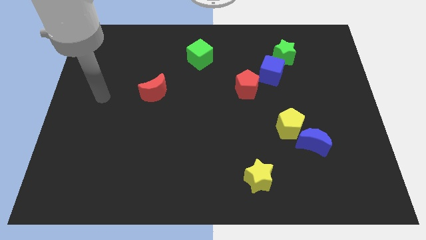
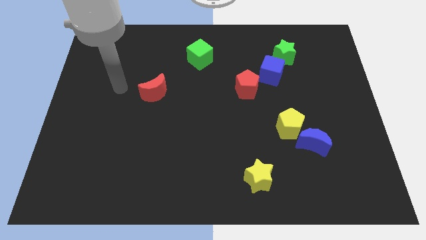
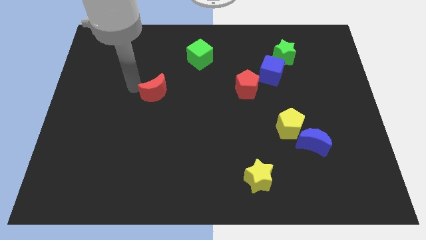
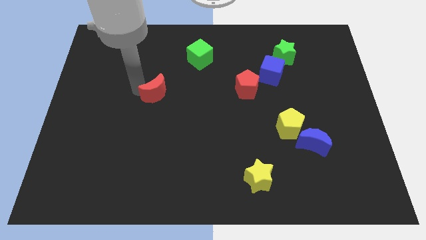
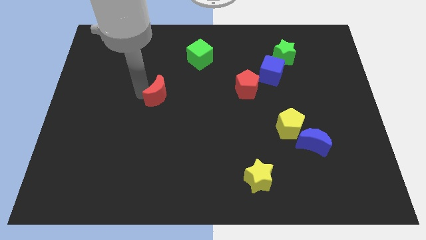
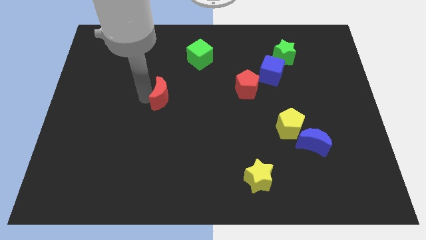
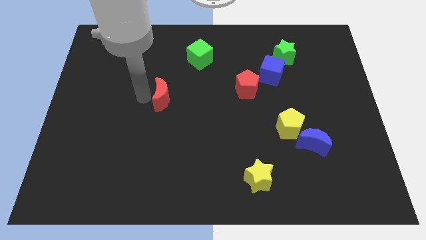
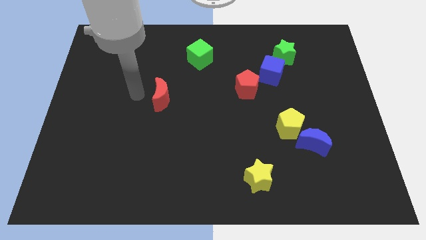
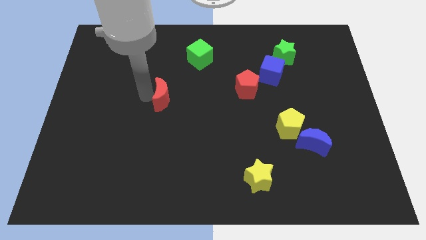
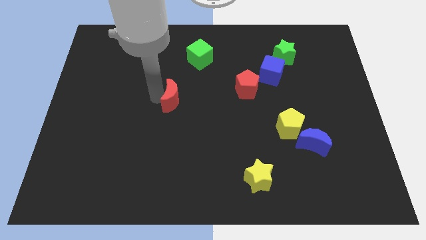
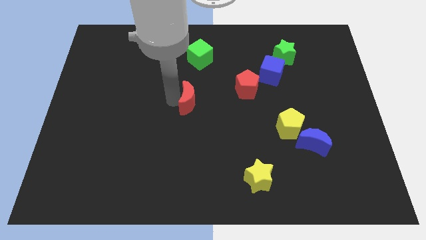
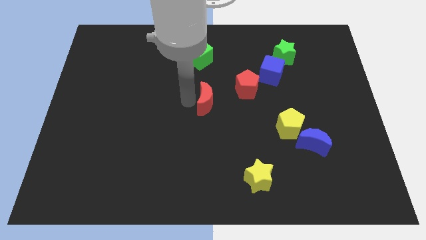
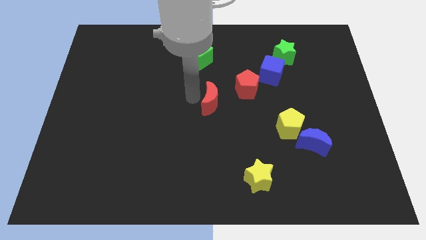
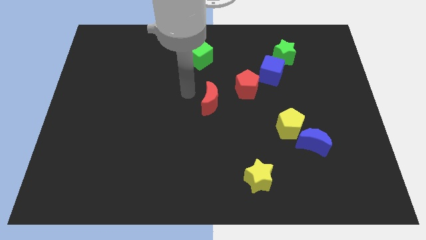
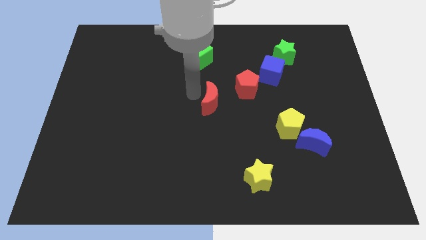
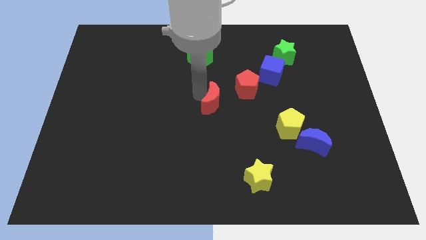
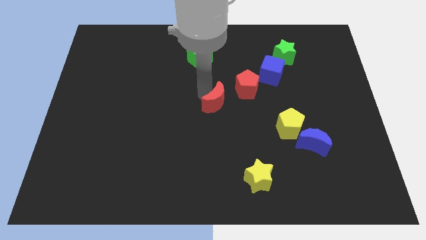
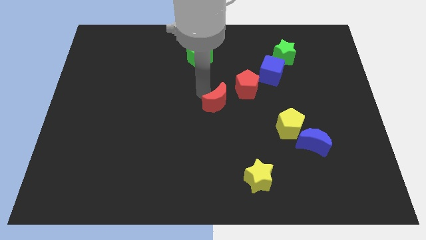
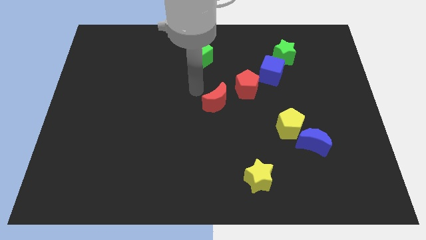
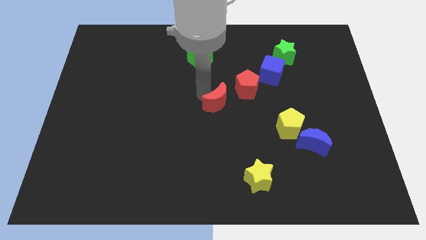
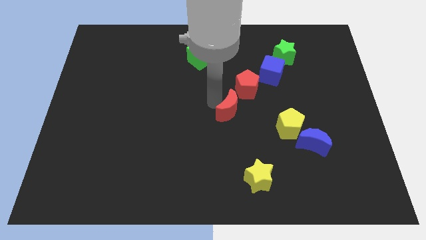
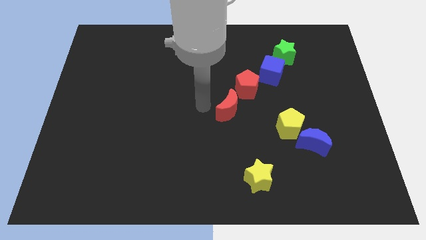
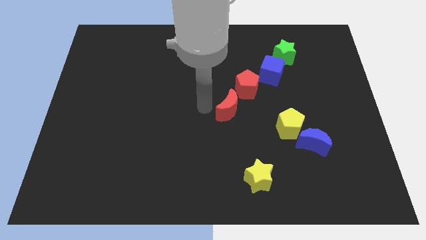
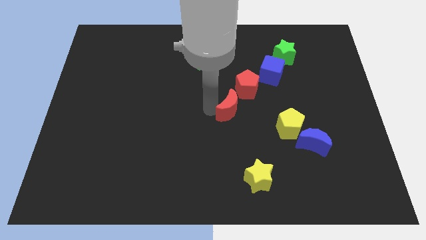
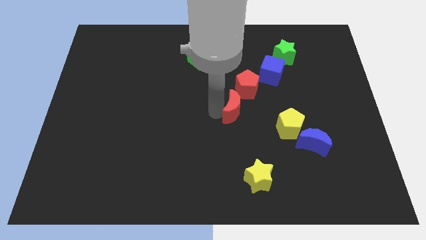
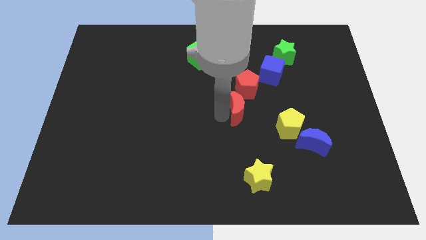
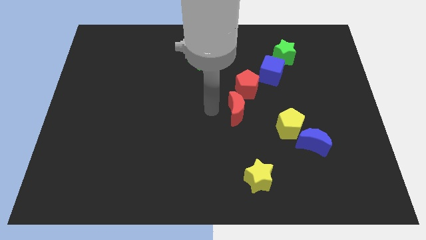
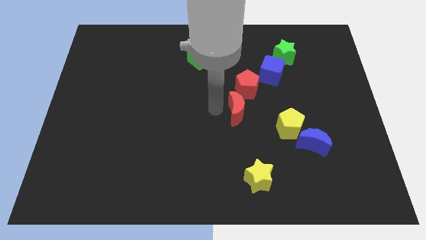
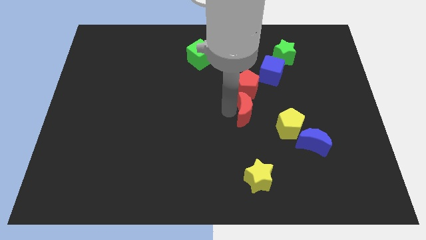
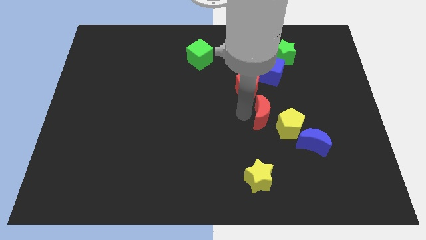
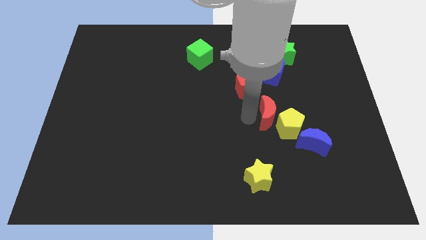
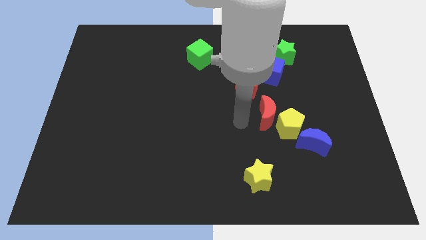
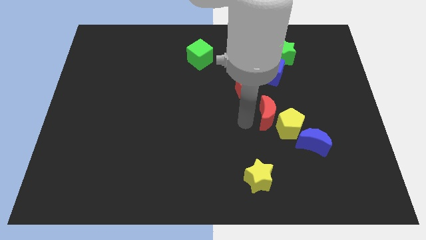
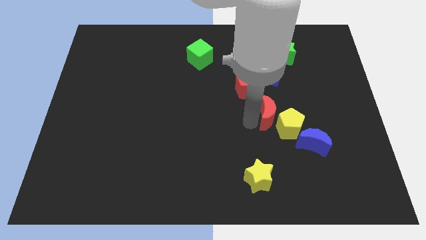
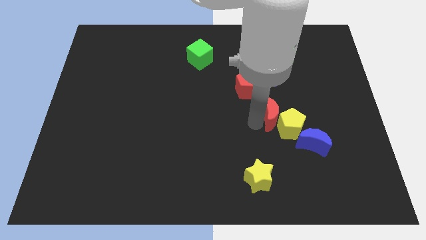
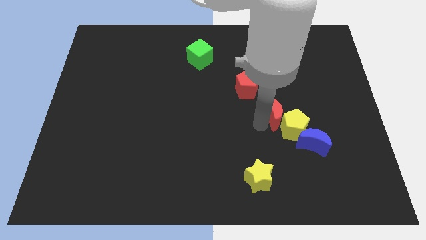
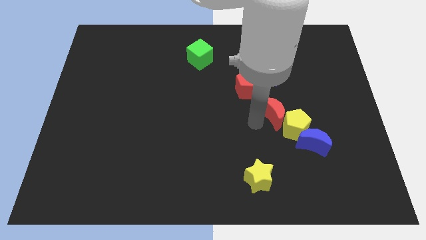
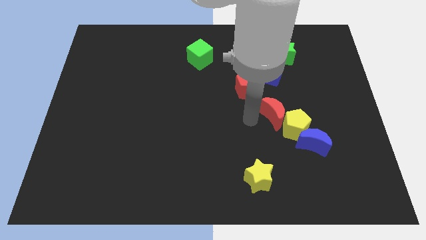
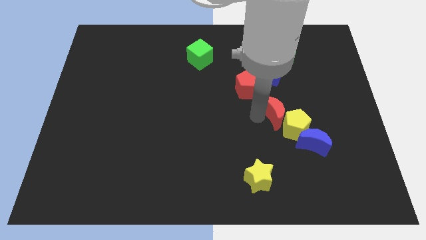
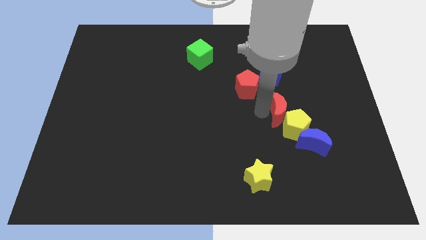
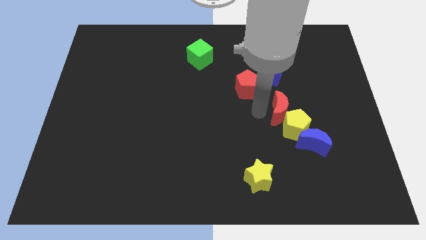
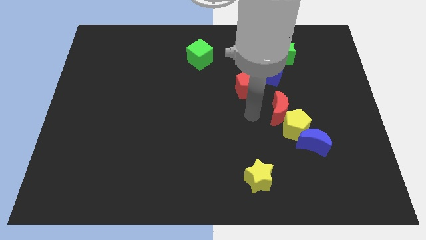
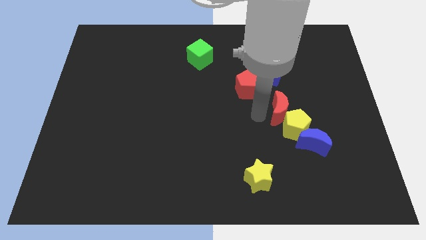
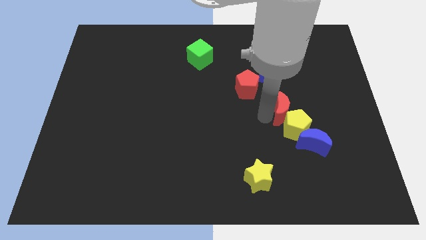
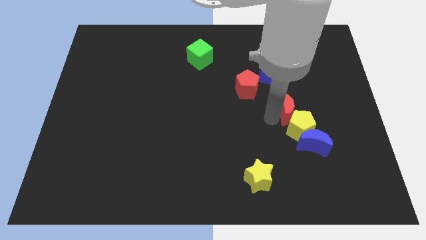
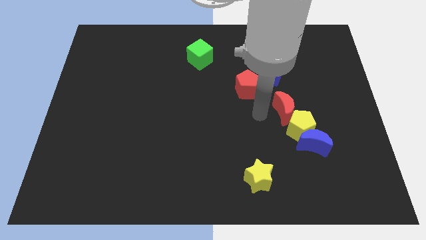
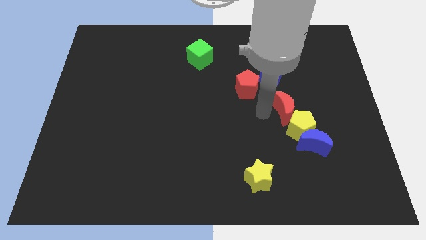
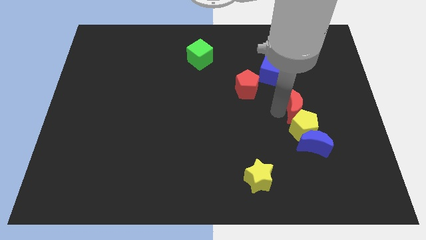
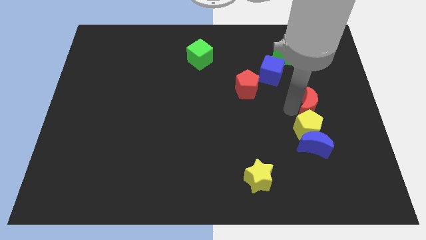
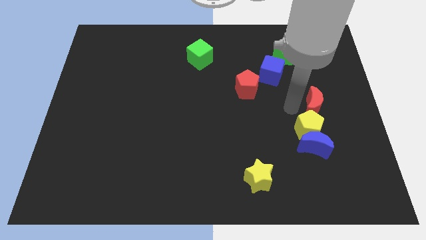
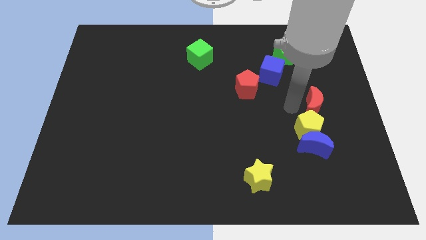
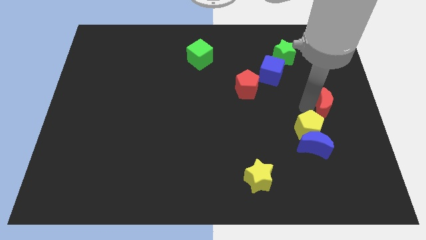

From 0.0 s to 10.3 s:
push the red moon to the right side of the board
